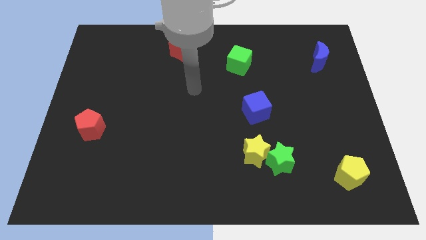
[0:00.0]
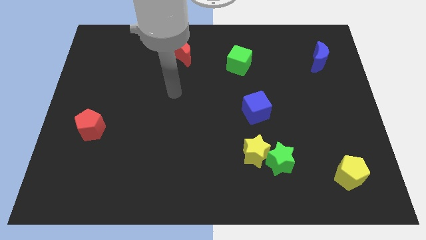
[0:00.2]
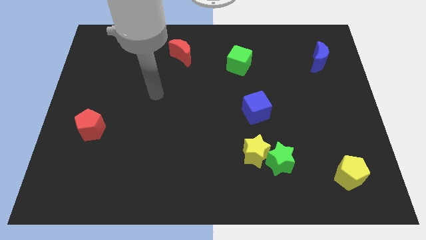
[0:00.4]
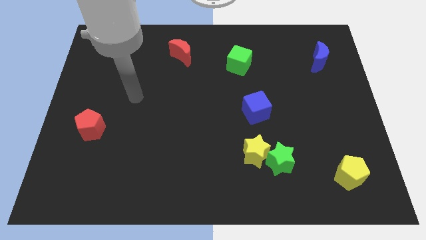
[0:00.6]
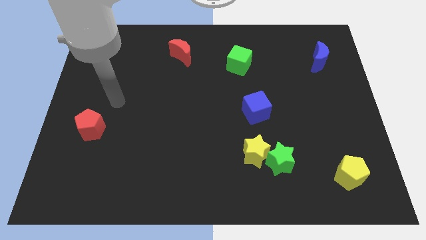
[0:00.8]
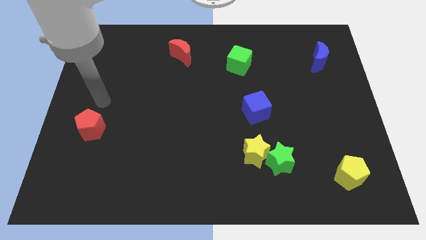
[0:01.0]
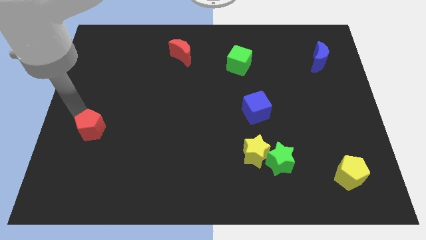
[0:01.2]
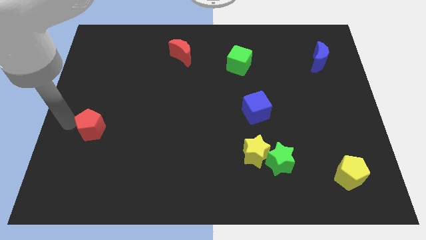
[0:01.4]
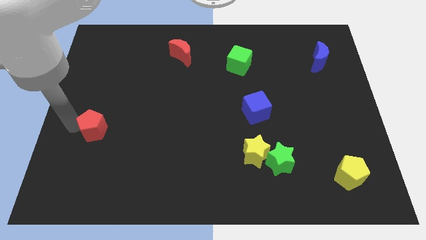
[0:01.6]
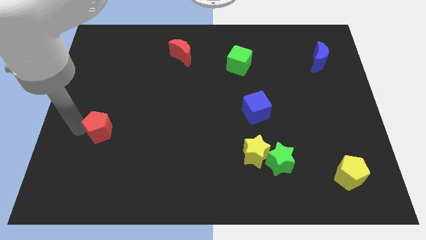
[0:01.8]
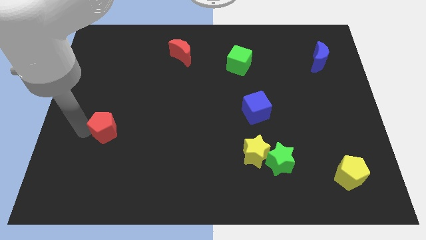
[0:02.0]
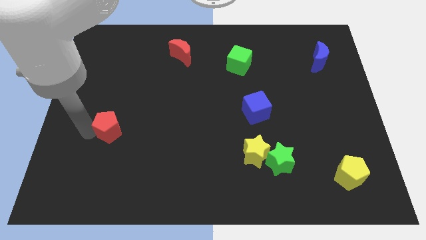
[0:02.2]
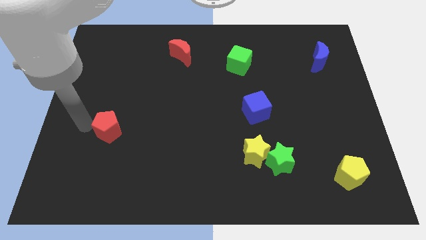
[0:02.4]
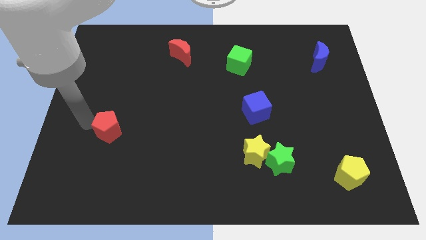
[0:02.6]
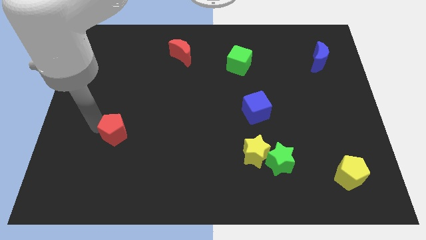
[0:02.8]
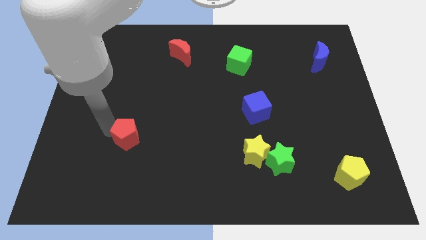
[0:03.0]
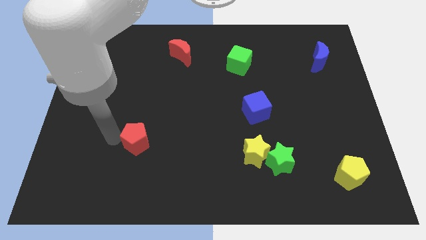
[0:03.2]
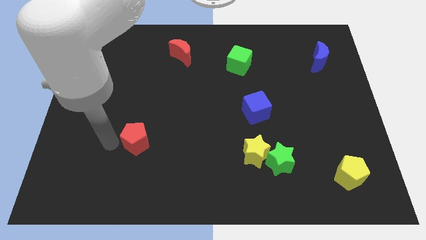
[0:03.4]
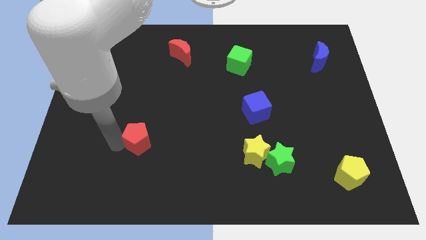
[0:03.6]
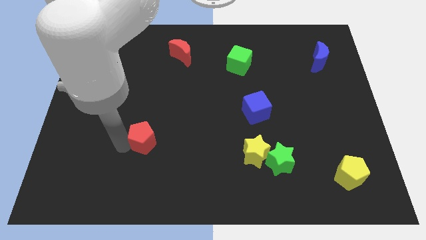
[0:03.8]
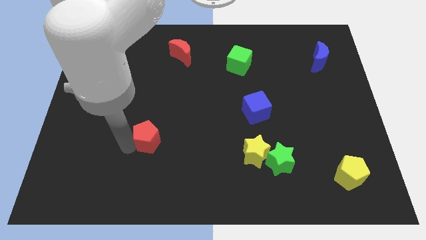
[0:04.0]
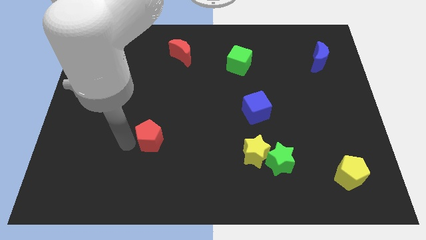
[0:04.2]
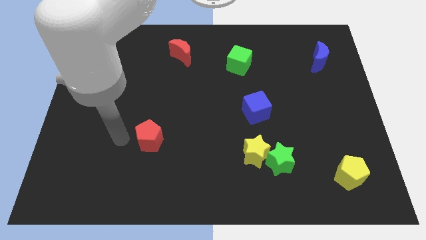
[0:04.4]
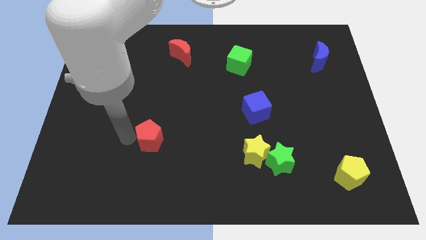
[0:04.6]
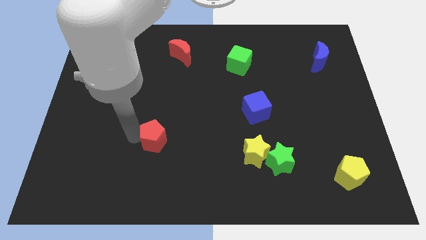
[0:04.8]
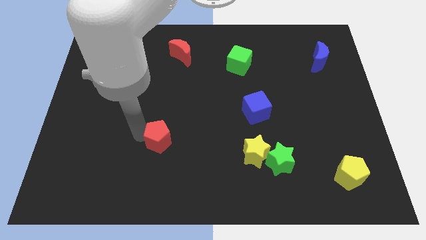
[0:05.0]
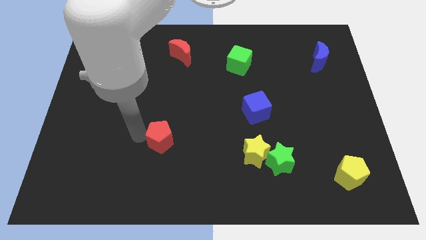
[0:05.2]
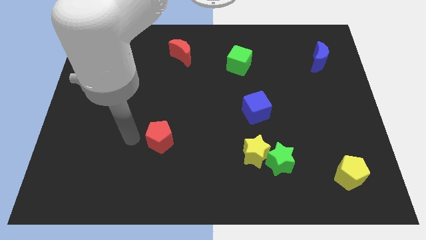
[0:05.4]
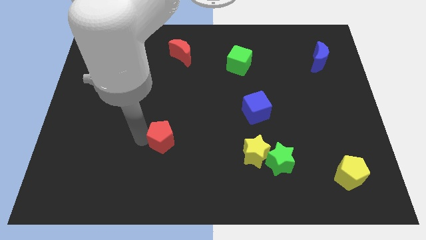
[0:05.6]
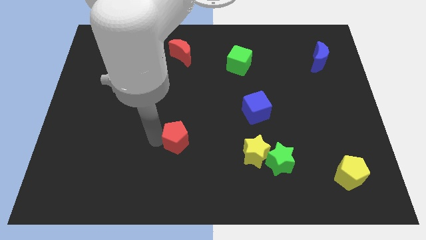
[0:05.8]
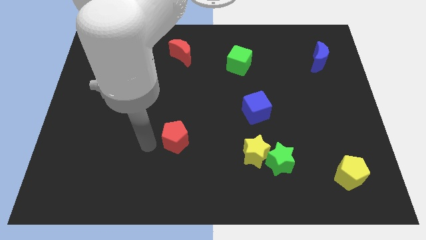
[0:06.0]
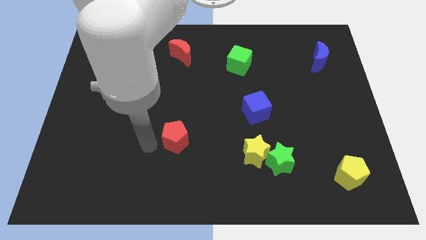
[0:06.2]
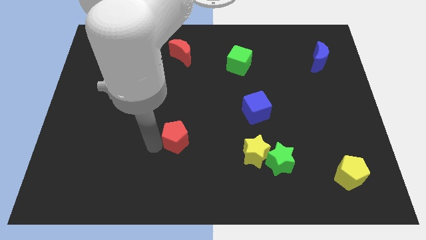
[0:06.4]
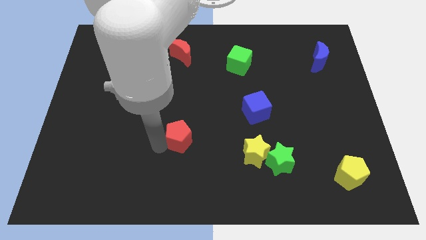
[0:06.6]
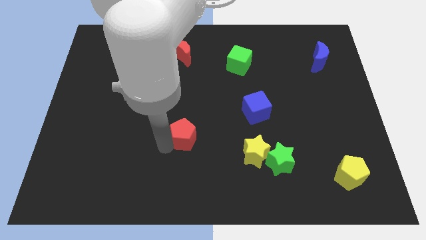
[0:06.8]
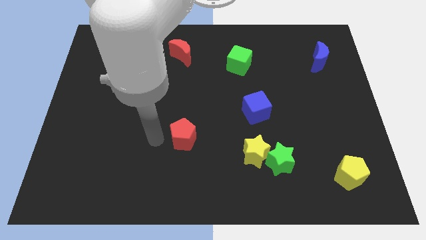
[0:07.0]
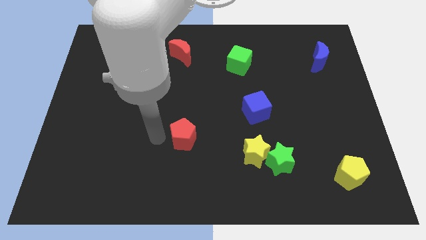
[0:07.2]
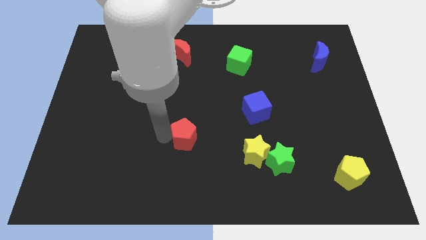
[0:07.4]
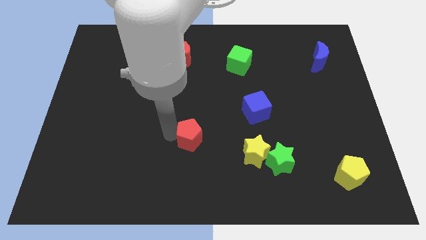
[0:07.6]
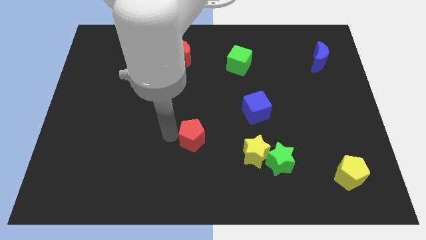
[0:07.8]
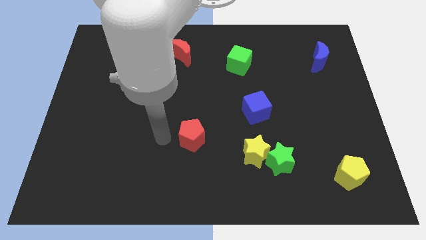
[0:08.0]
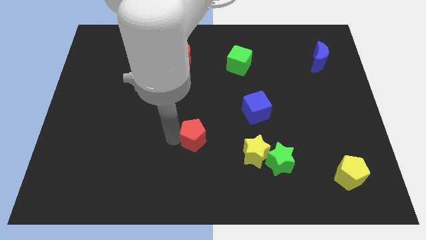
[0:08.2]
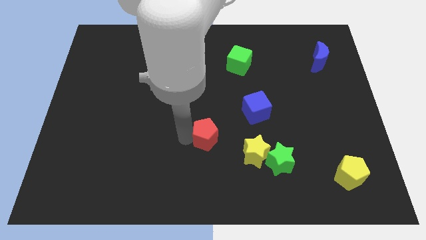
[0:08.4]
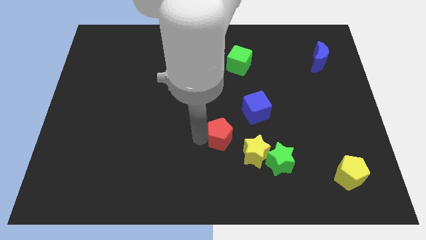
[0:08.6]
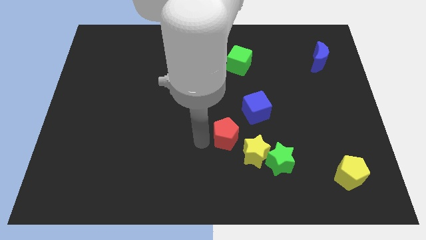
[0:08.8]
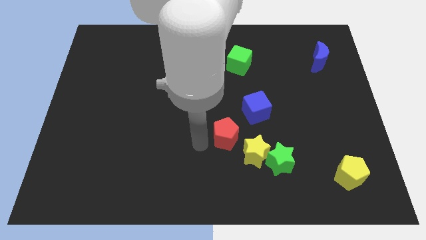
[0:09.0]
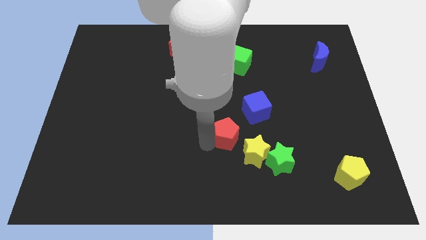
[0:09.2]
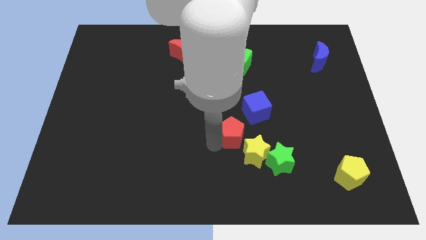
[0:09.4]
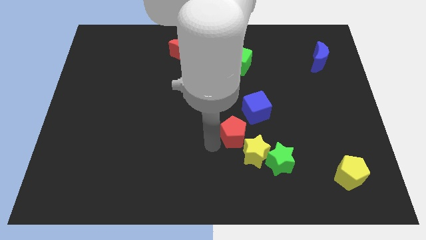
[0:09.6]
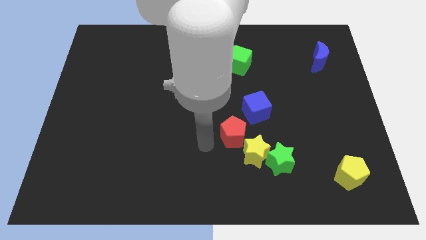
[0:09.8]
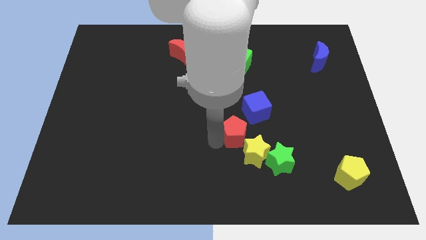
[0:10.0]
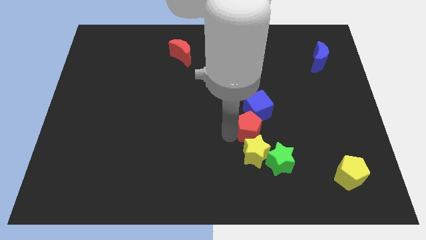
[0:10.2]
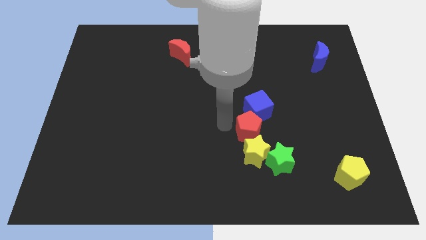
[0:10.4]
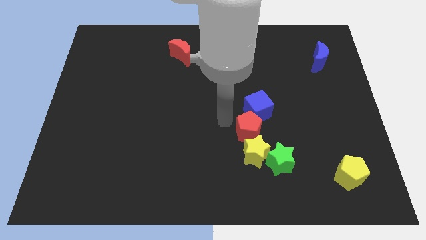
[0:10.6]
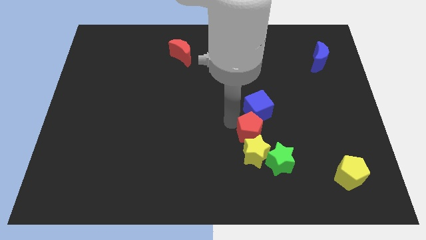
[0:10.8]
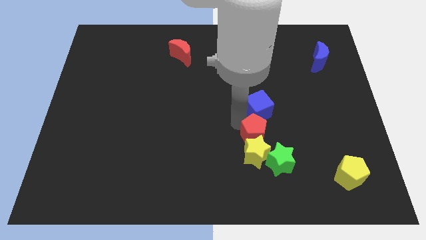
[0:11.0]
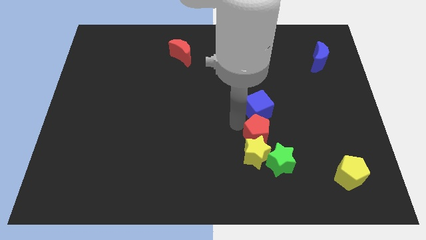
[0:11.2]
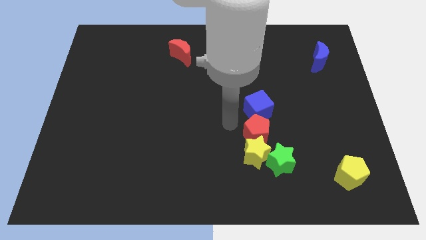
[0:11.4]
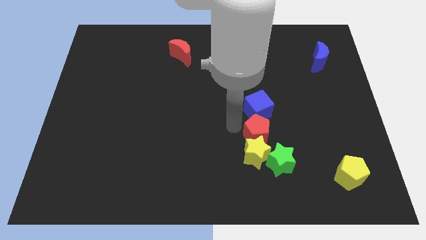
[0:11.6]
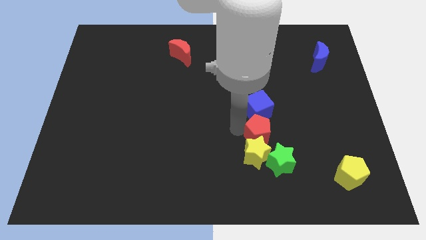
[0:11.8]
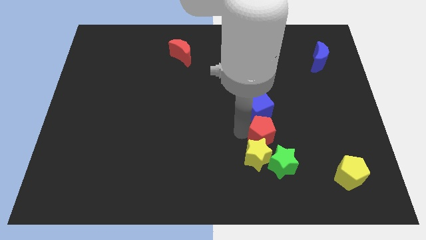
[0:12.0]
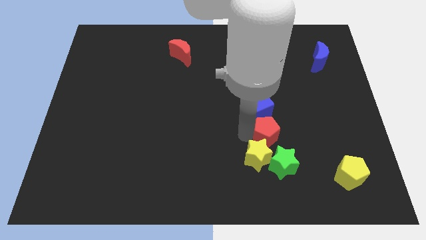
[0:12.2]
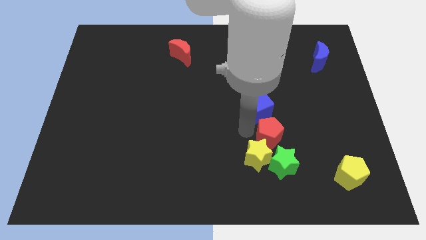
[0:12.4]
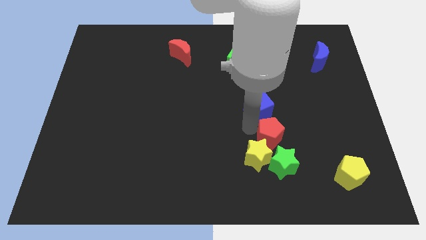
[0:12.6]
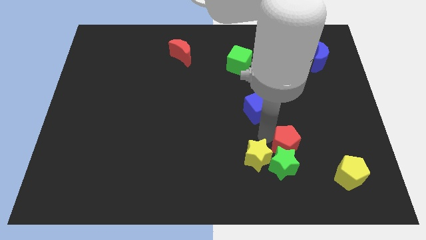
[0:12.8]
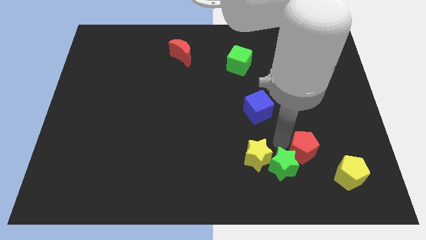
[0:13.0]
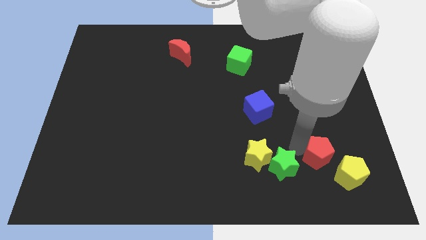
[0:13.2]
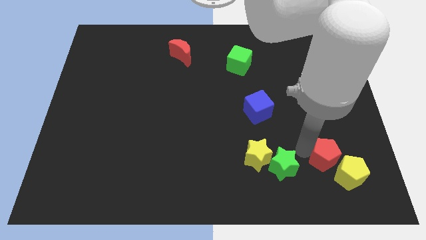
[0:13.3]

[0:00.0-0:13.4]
move the red pentagon close to the yellow pentagon
